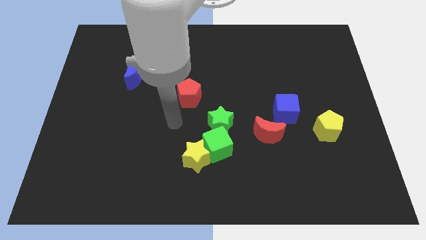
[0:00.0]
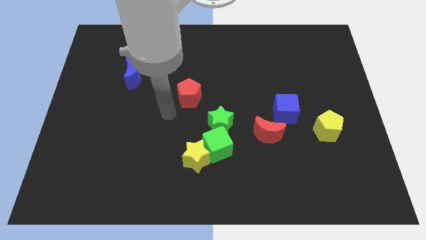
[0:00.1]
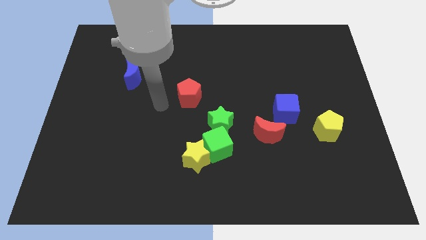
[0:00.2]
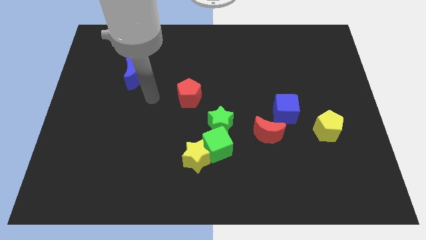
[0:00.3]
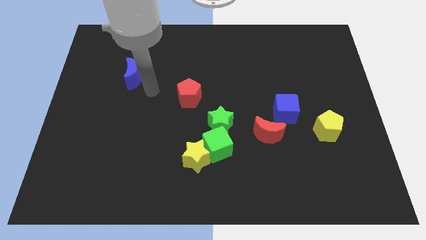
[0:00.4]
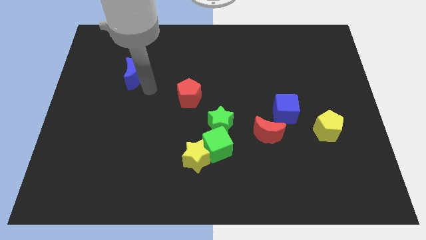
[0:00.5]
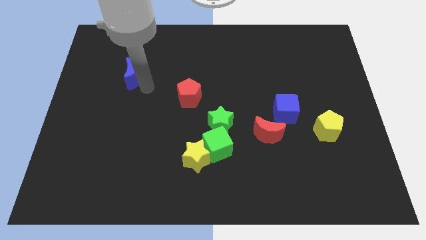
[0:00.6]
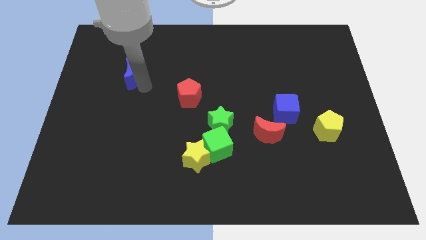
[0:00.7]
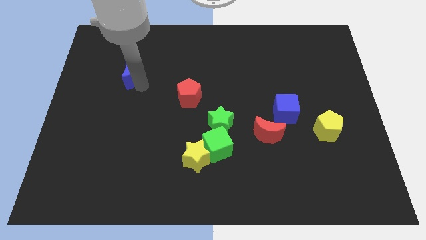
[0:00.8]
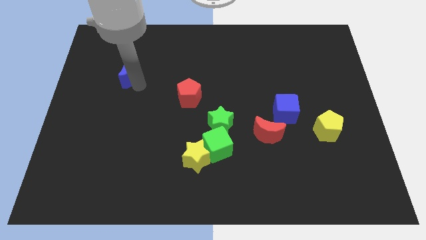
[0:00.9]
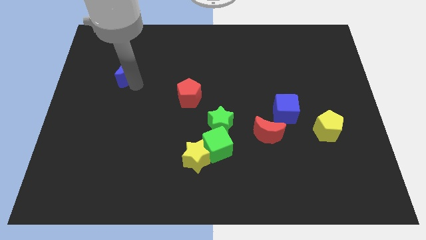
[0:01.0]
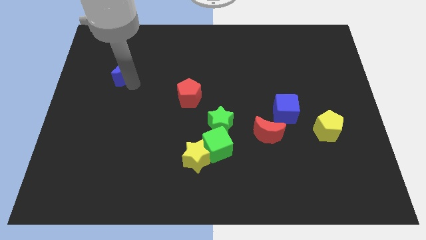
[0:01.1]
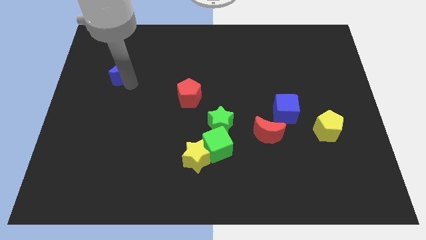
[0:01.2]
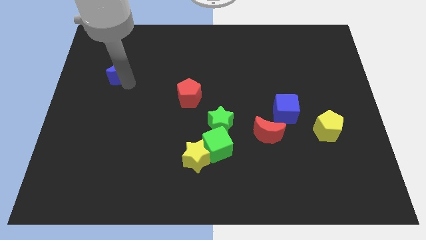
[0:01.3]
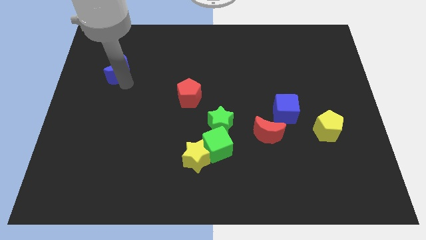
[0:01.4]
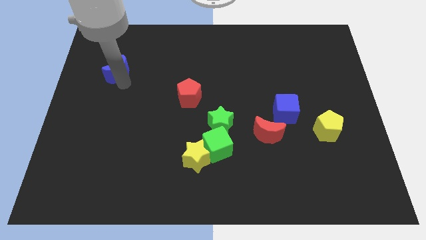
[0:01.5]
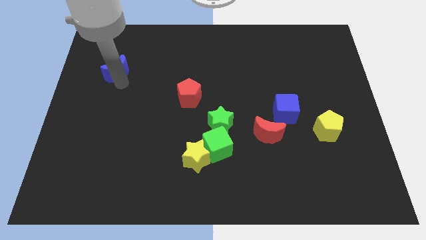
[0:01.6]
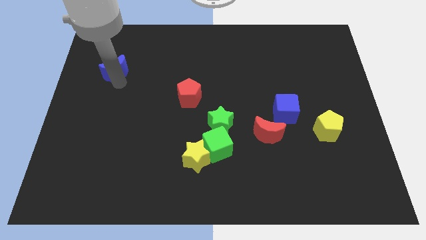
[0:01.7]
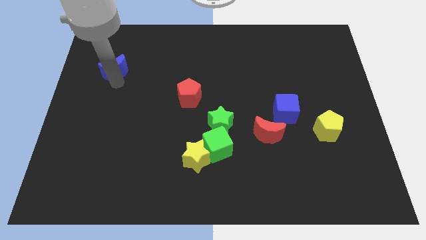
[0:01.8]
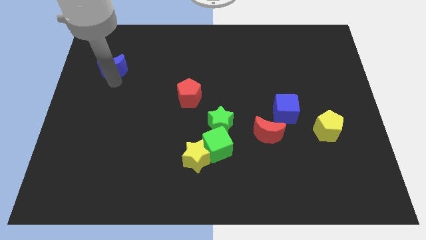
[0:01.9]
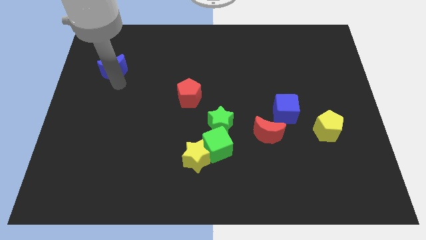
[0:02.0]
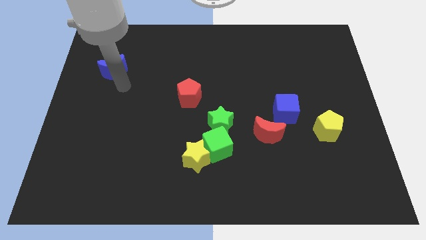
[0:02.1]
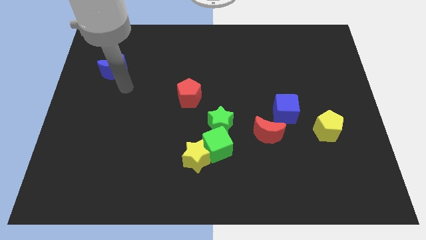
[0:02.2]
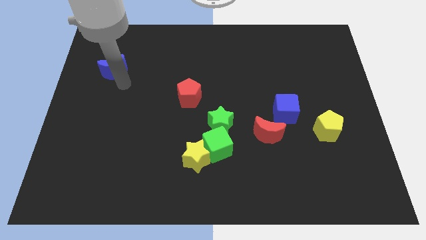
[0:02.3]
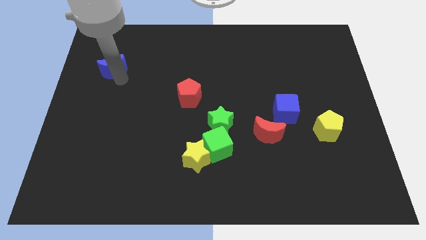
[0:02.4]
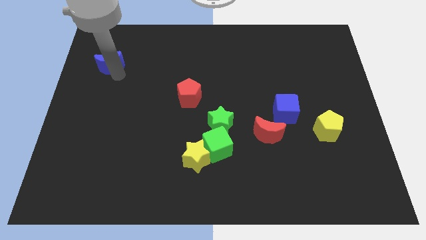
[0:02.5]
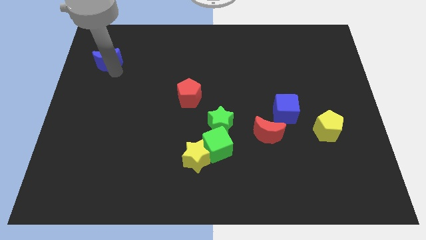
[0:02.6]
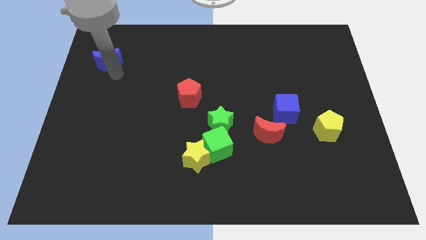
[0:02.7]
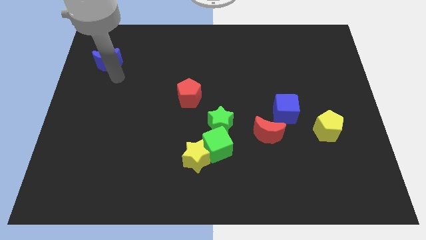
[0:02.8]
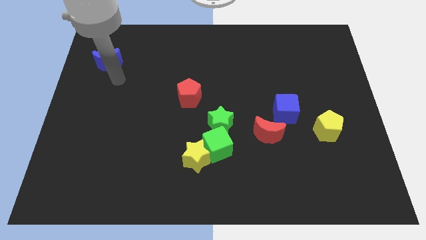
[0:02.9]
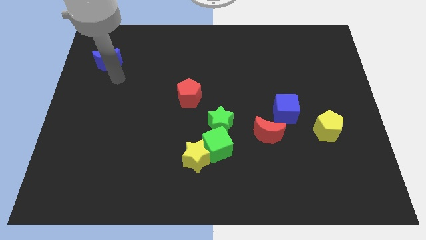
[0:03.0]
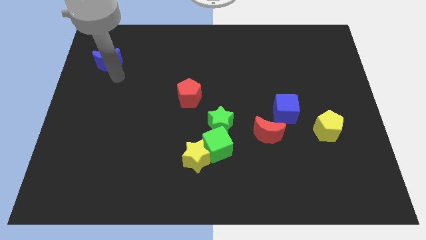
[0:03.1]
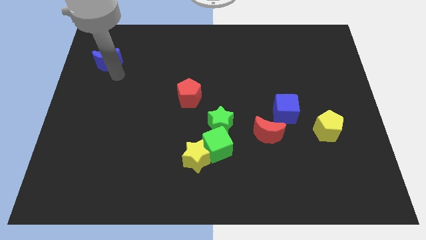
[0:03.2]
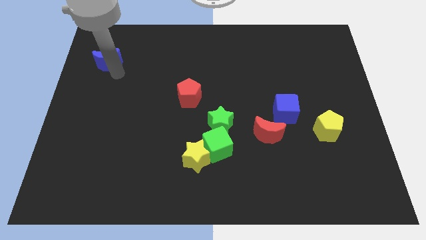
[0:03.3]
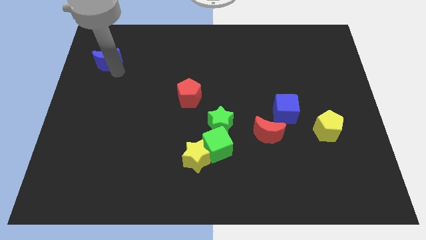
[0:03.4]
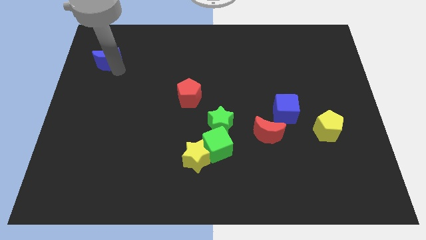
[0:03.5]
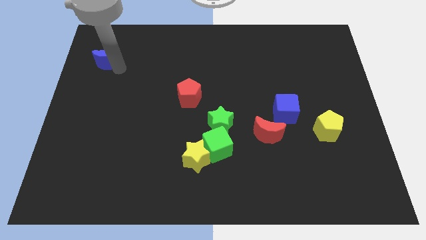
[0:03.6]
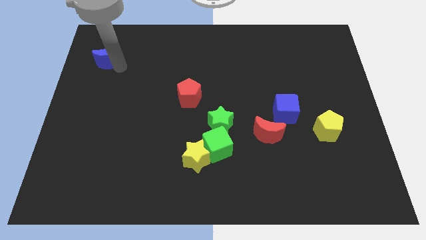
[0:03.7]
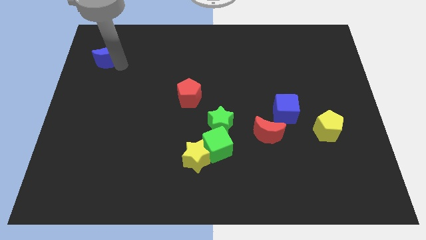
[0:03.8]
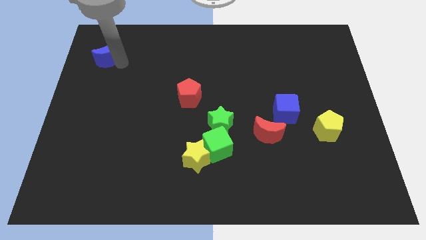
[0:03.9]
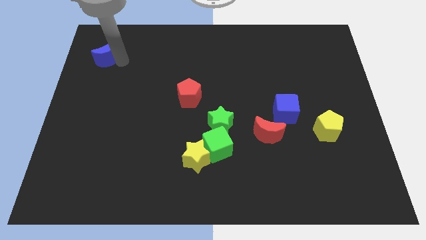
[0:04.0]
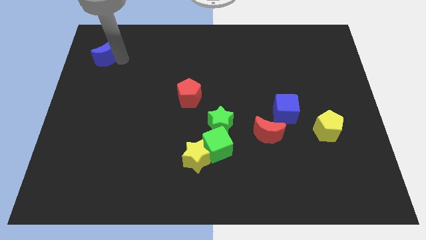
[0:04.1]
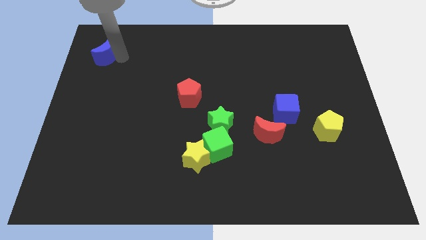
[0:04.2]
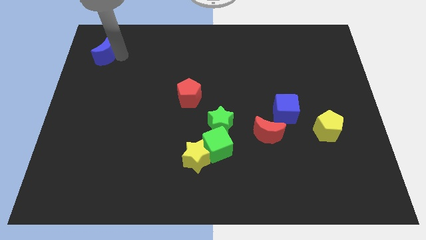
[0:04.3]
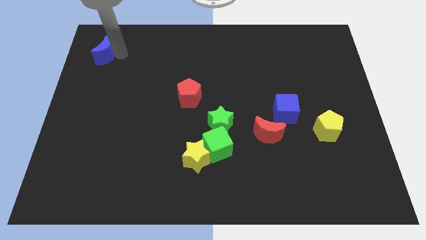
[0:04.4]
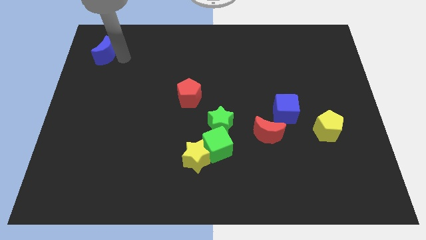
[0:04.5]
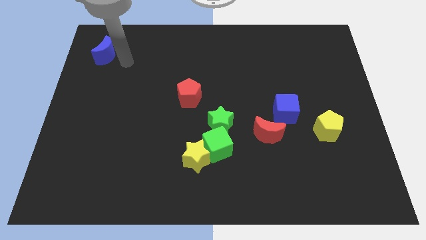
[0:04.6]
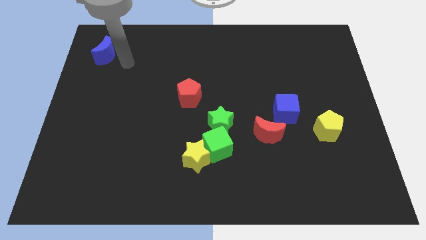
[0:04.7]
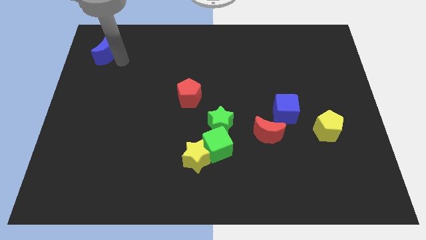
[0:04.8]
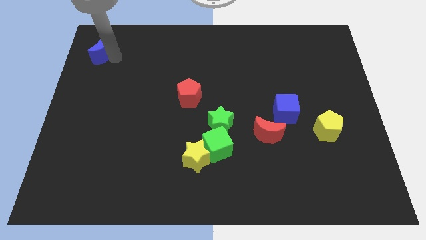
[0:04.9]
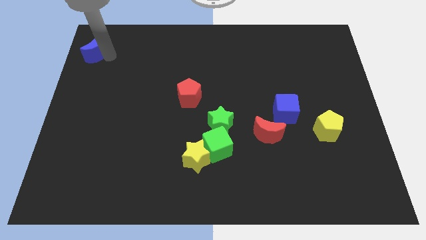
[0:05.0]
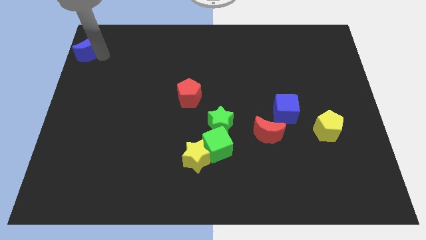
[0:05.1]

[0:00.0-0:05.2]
put the blue moon to the upper left corner

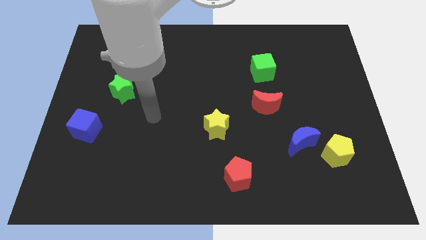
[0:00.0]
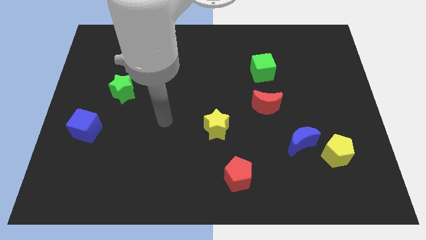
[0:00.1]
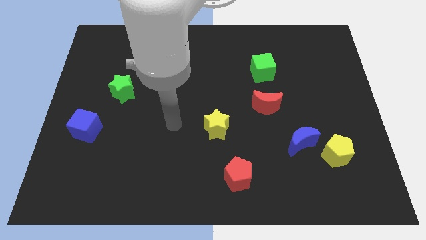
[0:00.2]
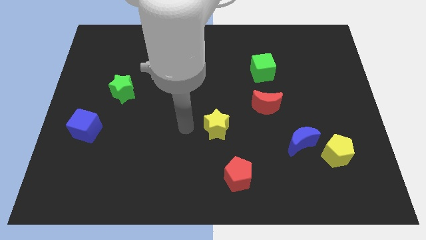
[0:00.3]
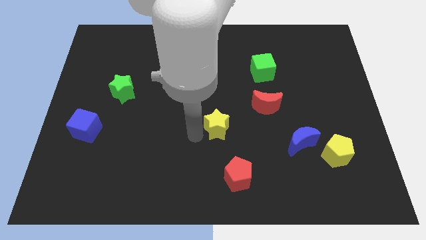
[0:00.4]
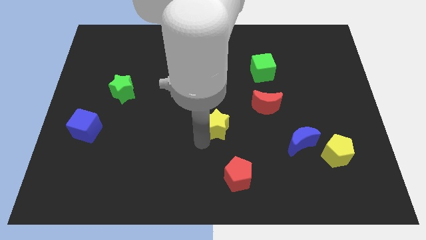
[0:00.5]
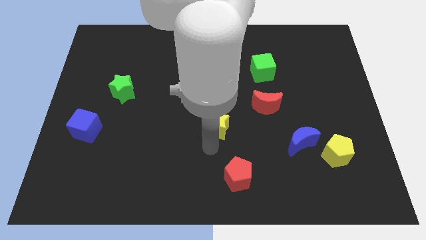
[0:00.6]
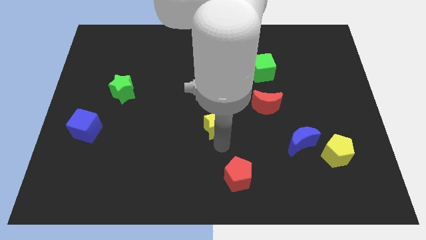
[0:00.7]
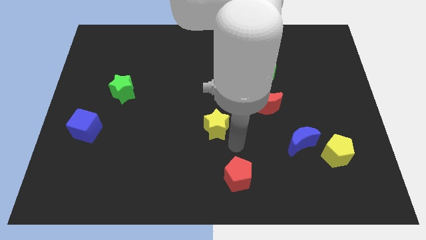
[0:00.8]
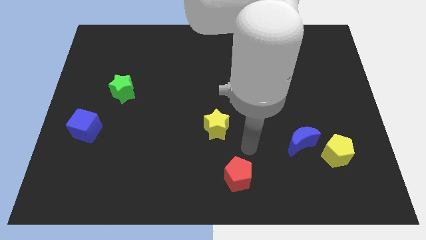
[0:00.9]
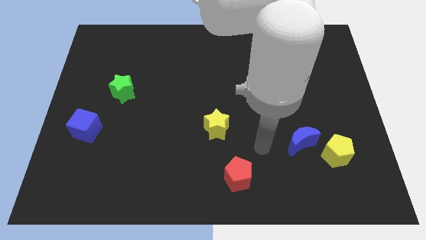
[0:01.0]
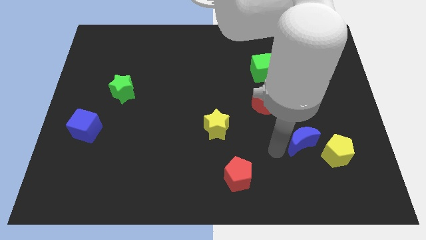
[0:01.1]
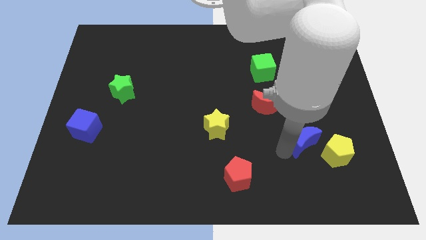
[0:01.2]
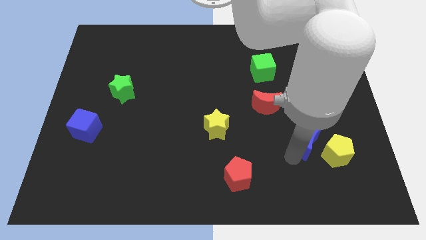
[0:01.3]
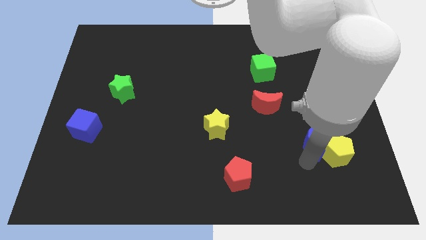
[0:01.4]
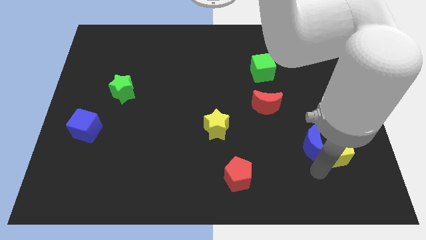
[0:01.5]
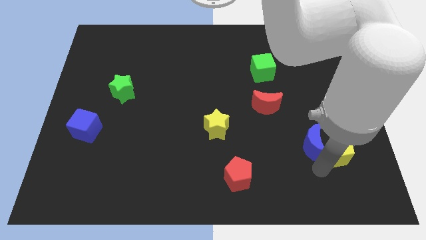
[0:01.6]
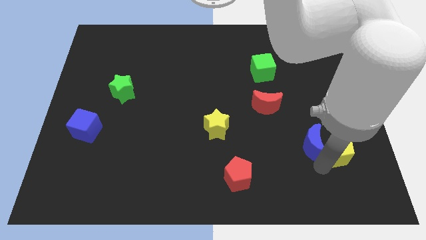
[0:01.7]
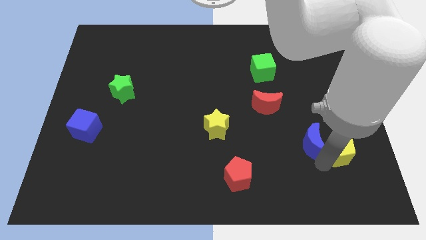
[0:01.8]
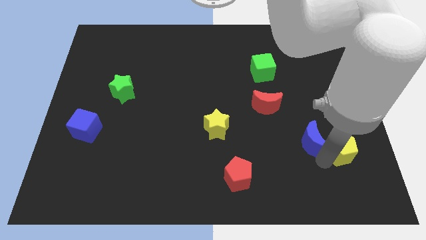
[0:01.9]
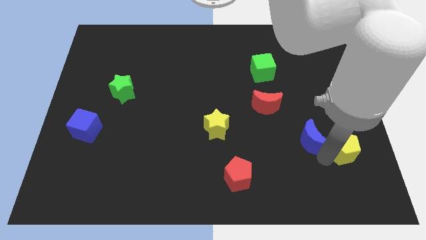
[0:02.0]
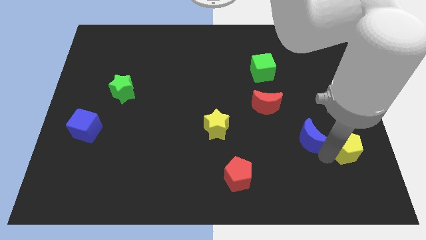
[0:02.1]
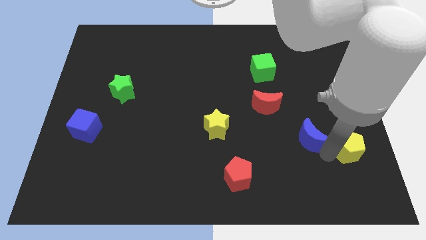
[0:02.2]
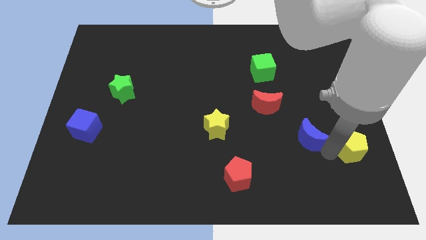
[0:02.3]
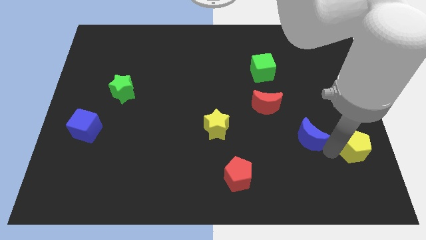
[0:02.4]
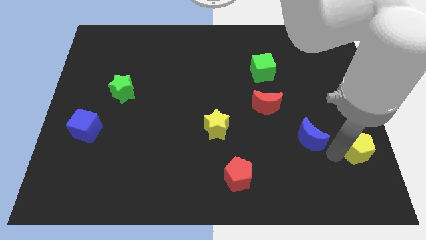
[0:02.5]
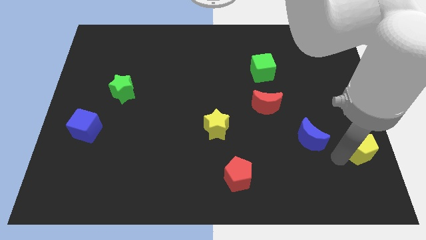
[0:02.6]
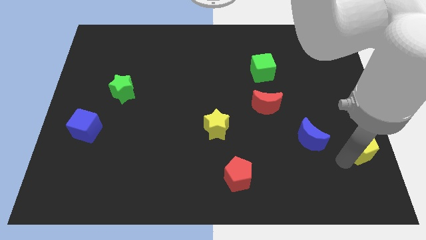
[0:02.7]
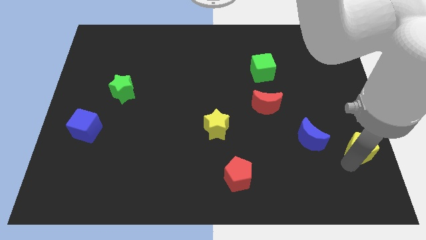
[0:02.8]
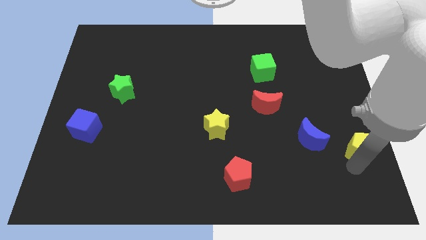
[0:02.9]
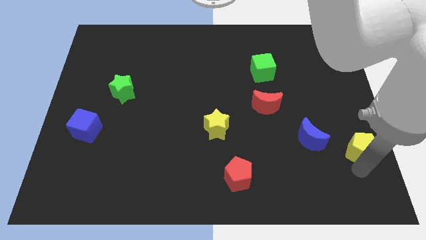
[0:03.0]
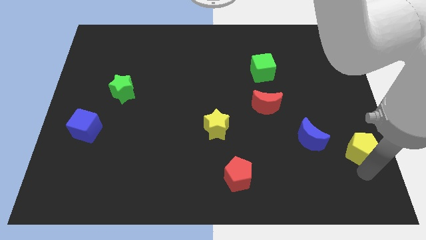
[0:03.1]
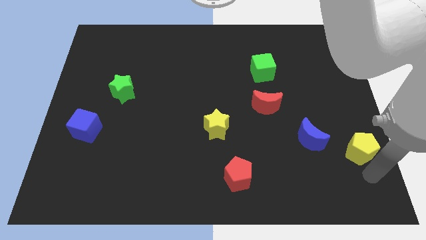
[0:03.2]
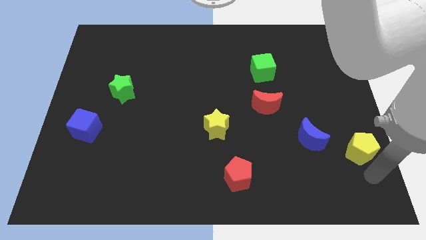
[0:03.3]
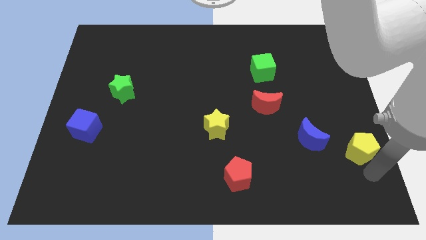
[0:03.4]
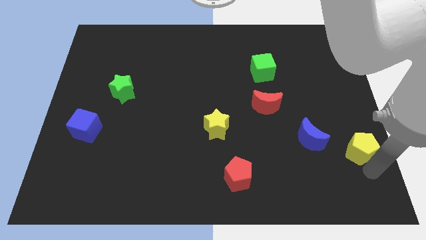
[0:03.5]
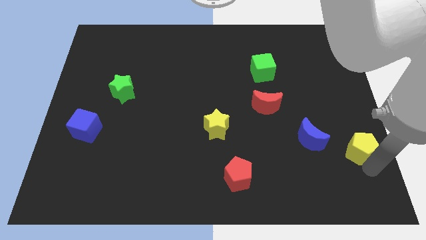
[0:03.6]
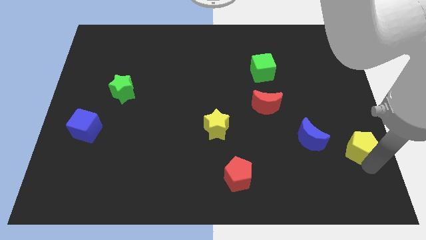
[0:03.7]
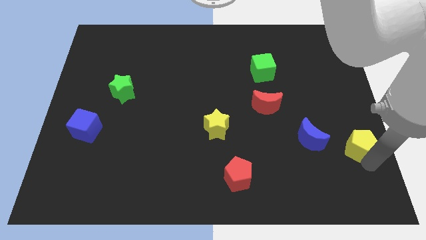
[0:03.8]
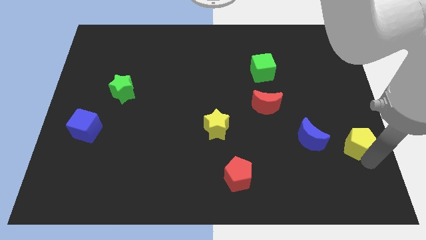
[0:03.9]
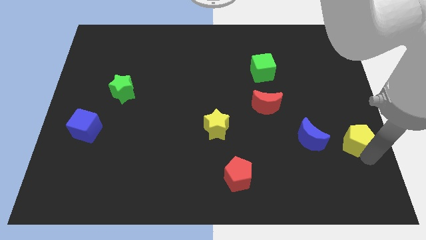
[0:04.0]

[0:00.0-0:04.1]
put the yellow pentagon to the center right
